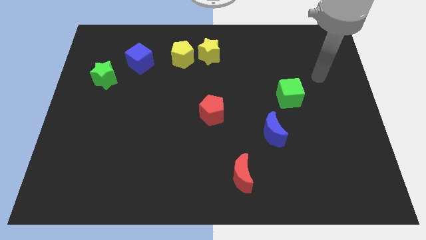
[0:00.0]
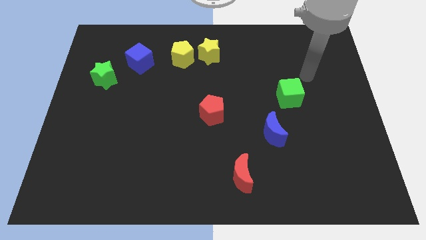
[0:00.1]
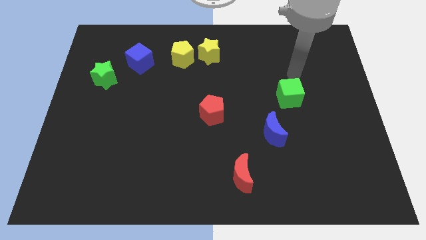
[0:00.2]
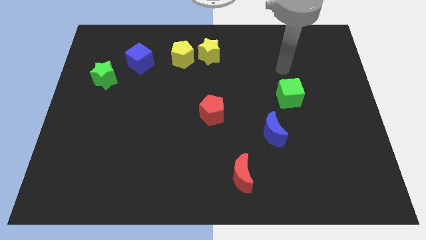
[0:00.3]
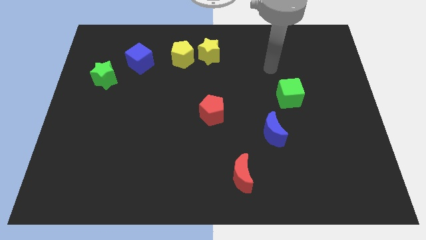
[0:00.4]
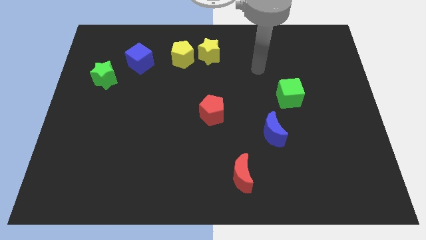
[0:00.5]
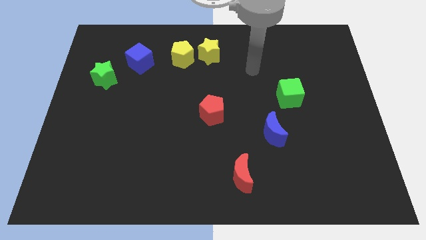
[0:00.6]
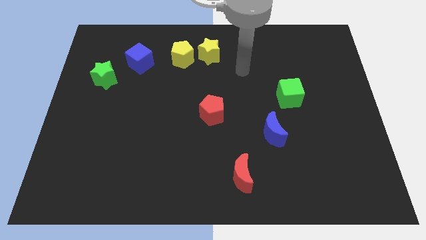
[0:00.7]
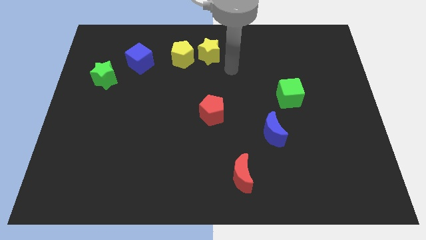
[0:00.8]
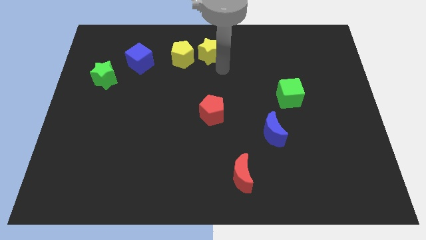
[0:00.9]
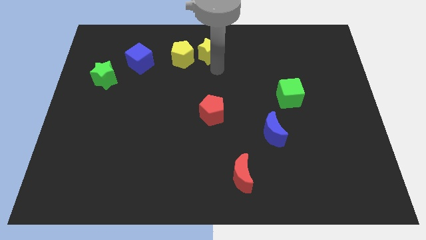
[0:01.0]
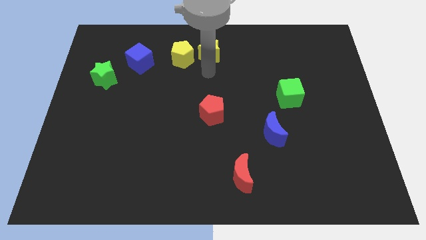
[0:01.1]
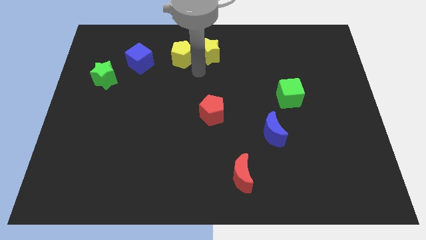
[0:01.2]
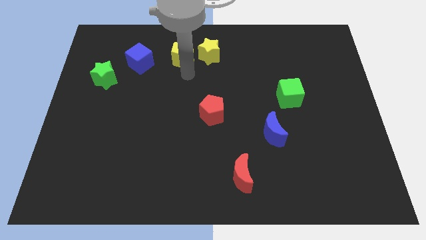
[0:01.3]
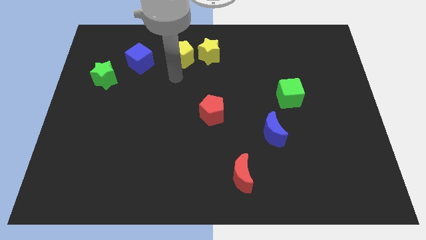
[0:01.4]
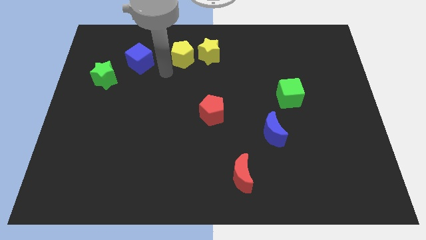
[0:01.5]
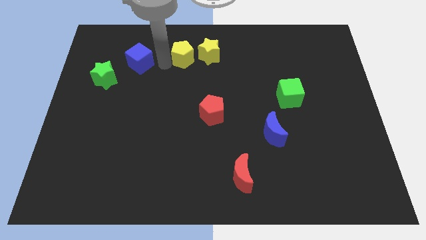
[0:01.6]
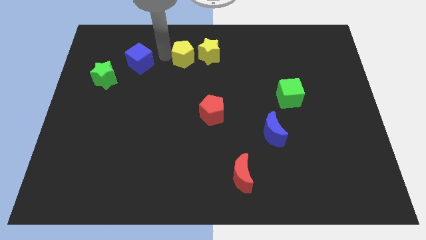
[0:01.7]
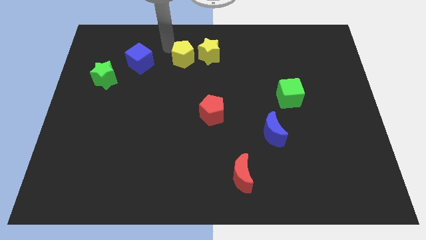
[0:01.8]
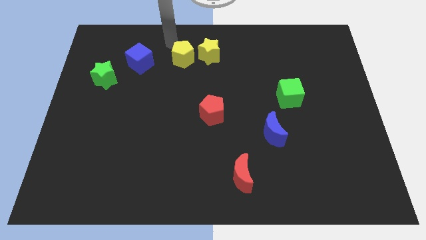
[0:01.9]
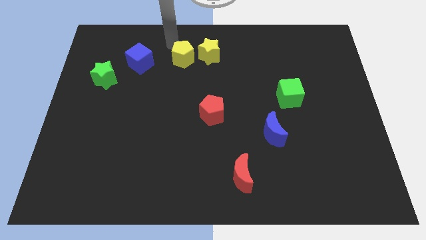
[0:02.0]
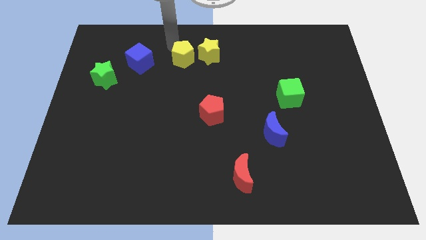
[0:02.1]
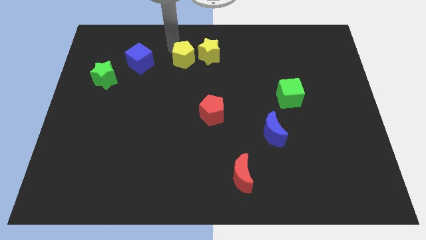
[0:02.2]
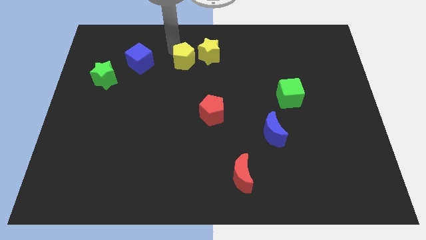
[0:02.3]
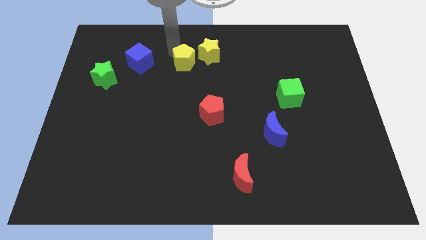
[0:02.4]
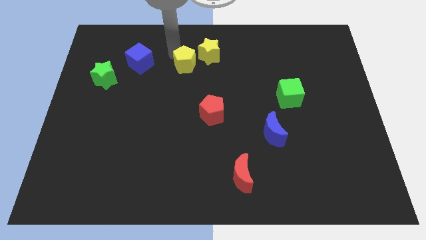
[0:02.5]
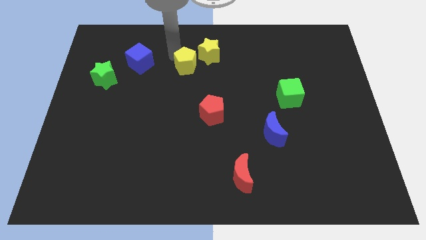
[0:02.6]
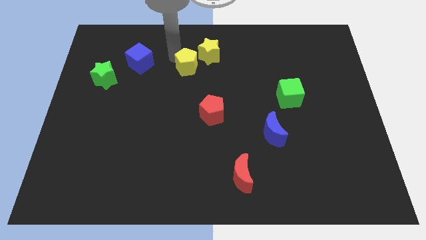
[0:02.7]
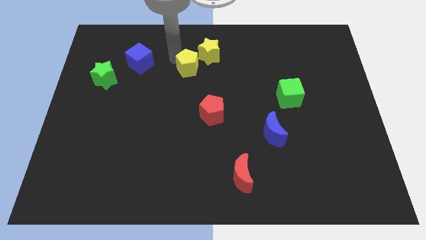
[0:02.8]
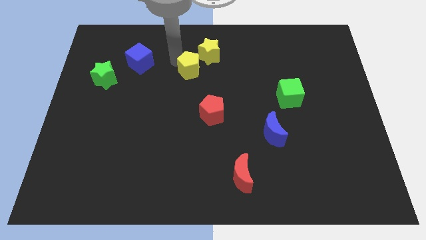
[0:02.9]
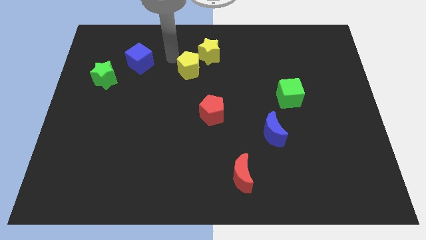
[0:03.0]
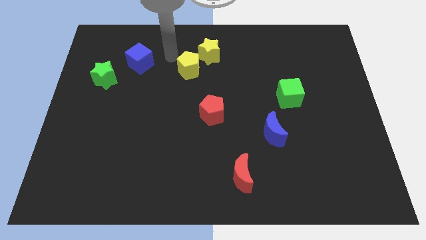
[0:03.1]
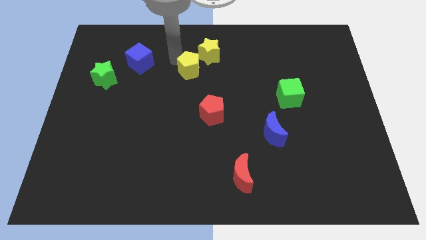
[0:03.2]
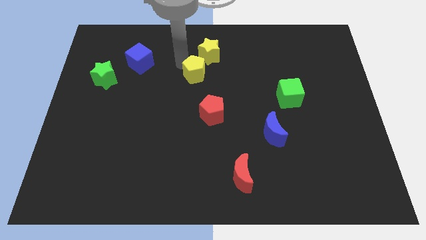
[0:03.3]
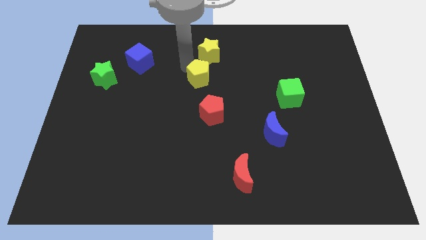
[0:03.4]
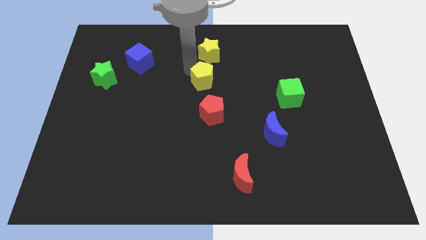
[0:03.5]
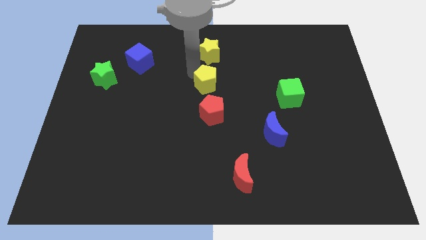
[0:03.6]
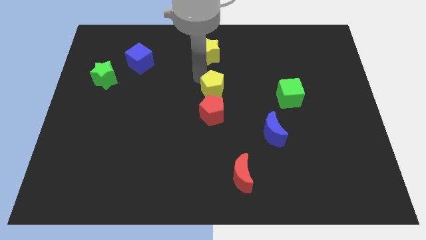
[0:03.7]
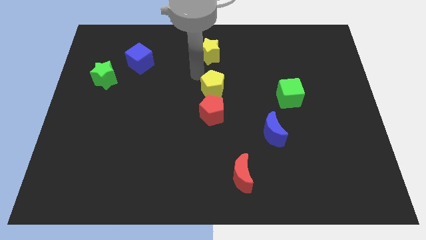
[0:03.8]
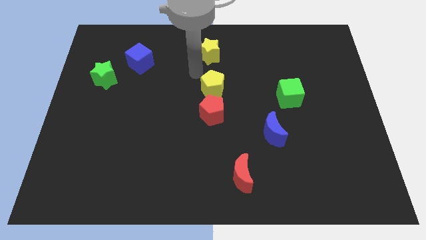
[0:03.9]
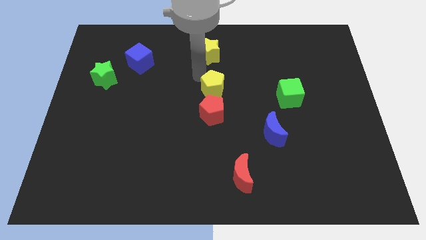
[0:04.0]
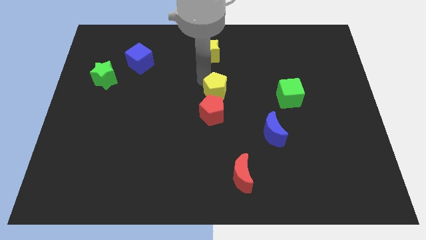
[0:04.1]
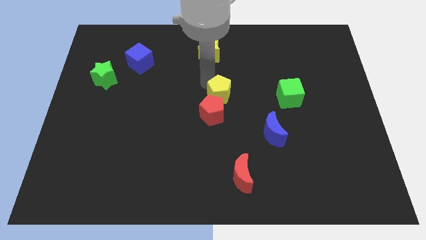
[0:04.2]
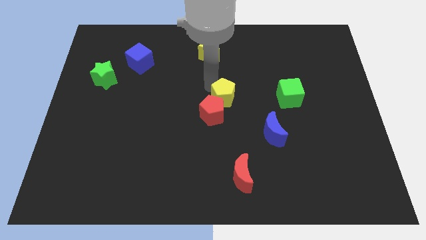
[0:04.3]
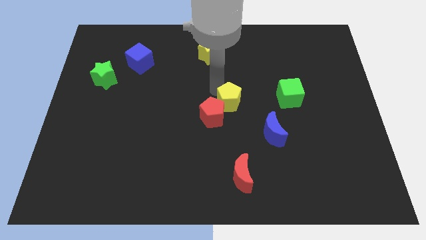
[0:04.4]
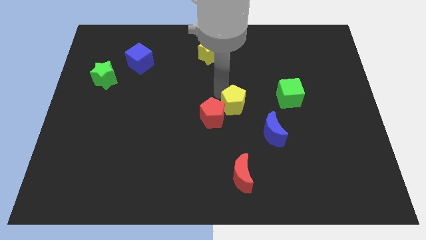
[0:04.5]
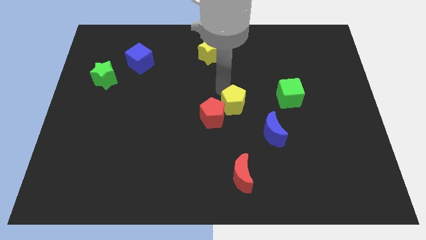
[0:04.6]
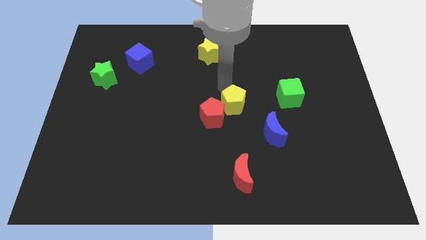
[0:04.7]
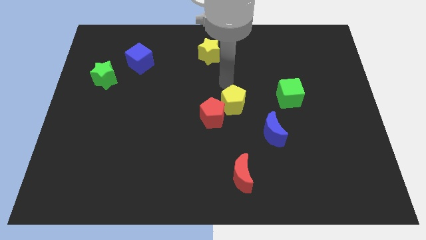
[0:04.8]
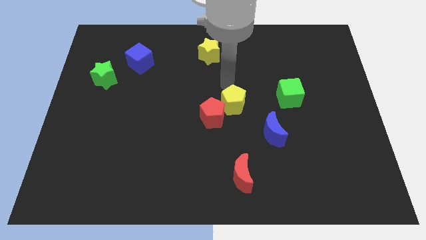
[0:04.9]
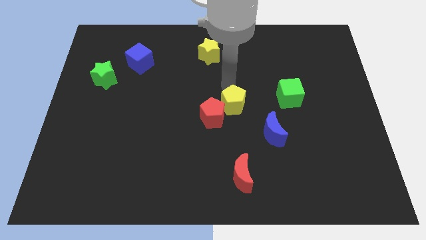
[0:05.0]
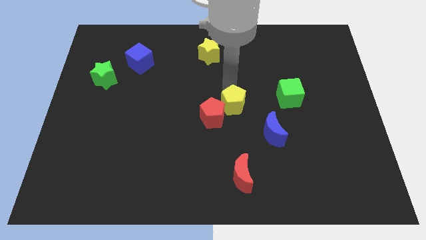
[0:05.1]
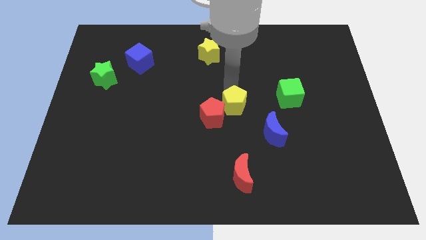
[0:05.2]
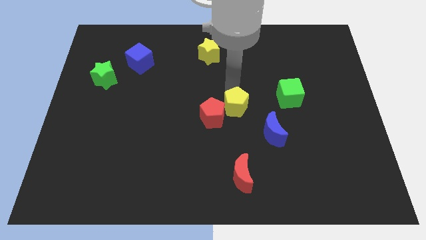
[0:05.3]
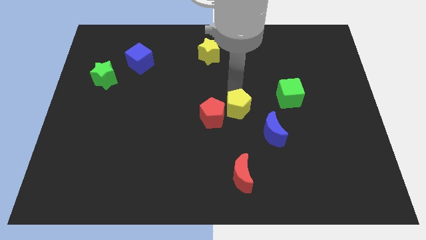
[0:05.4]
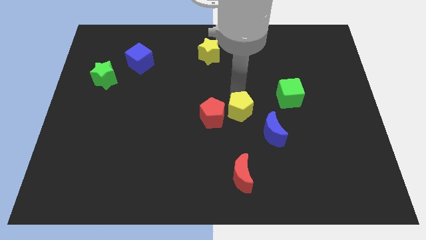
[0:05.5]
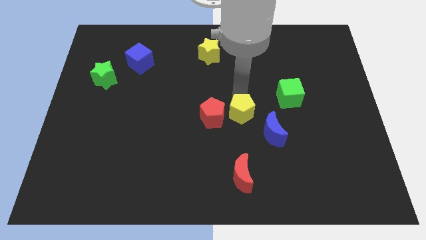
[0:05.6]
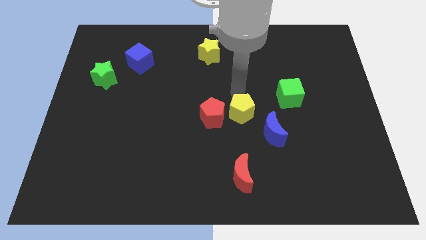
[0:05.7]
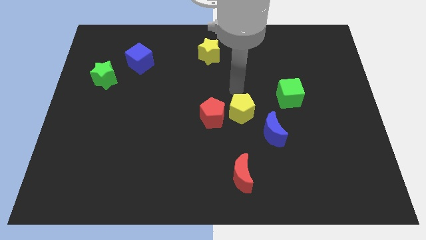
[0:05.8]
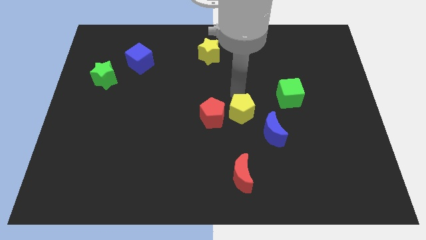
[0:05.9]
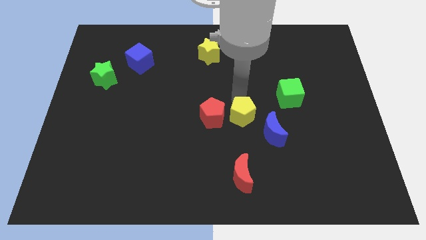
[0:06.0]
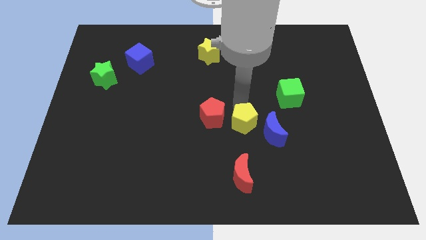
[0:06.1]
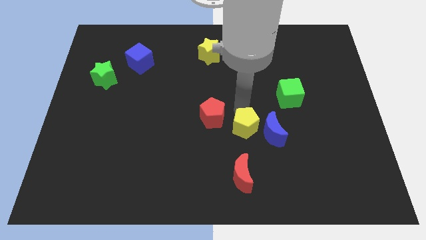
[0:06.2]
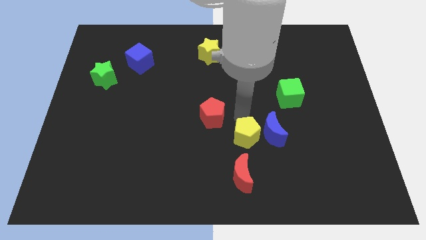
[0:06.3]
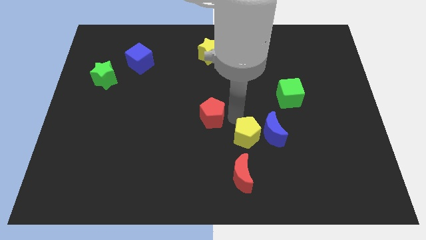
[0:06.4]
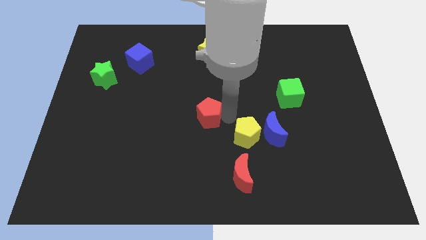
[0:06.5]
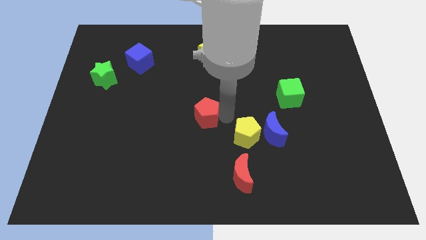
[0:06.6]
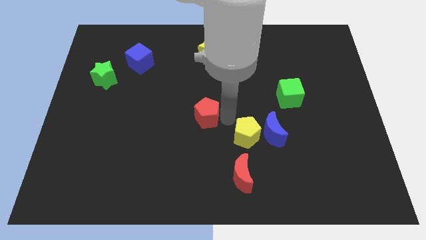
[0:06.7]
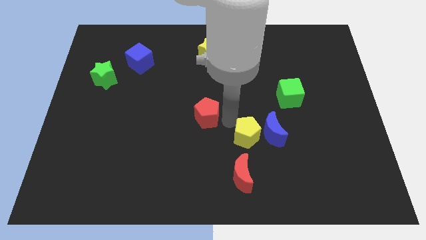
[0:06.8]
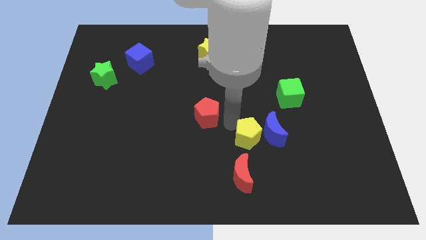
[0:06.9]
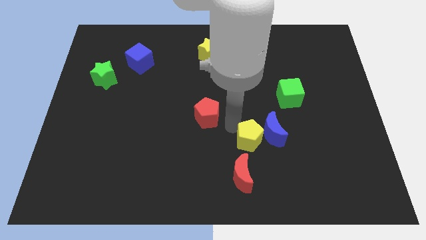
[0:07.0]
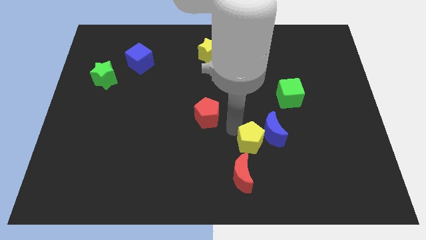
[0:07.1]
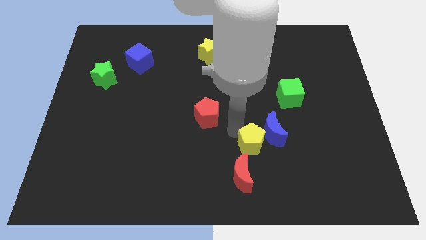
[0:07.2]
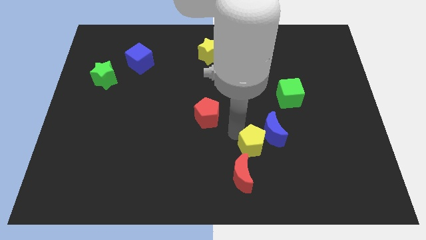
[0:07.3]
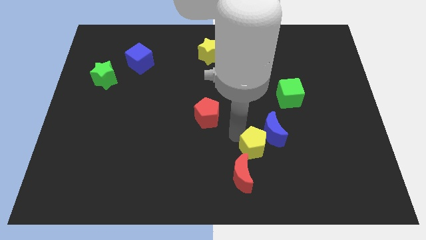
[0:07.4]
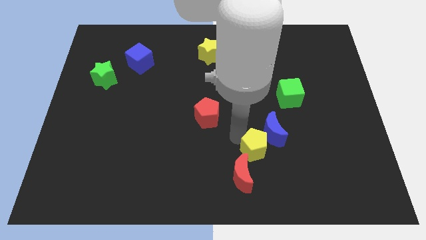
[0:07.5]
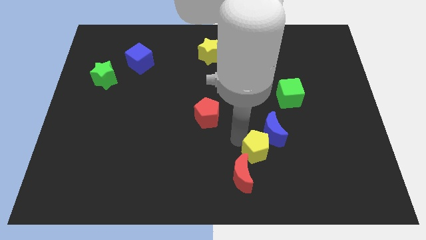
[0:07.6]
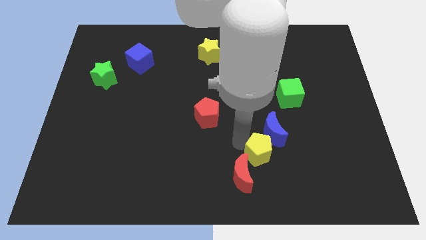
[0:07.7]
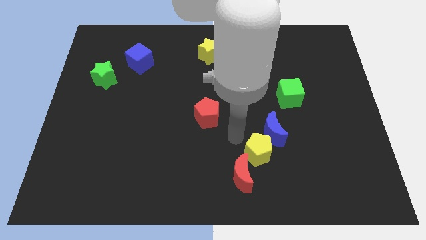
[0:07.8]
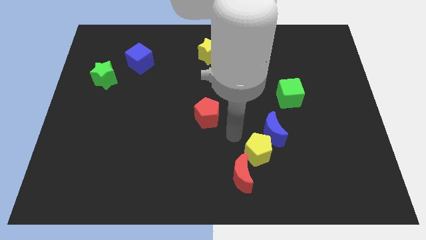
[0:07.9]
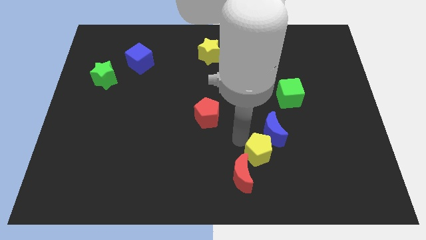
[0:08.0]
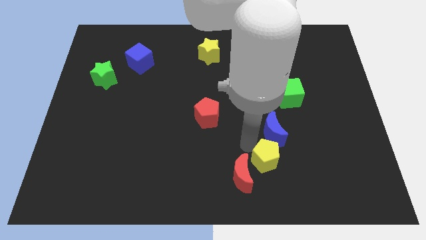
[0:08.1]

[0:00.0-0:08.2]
slide the yellow pentagon to the right of the red moon
